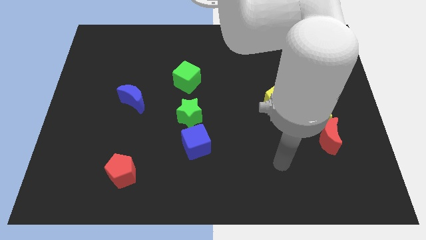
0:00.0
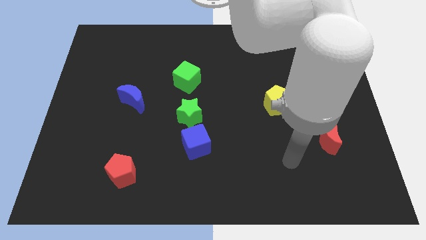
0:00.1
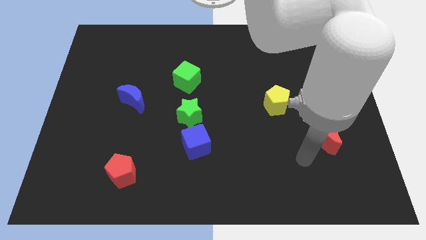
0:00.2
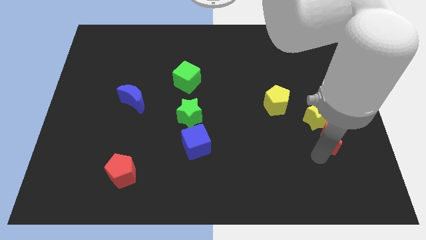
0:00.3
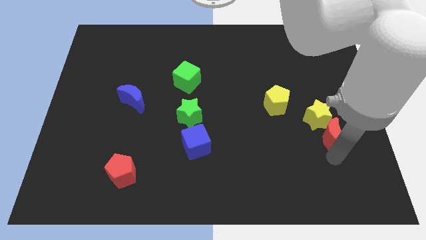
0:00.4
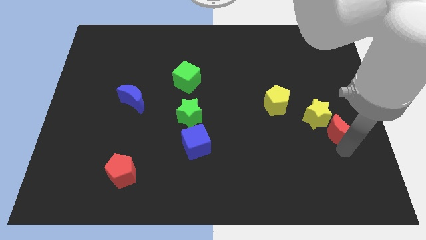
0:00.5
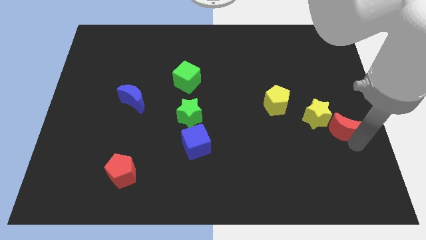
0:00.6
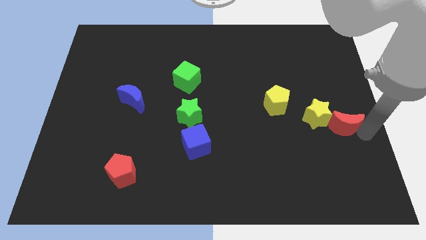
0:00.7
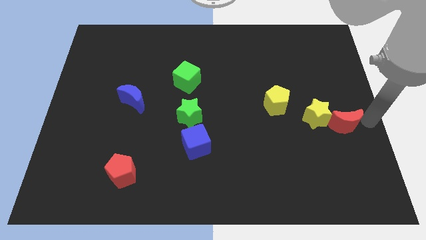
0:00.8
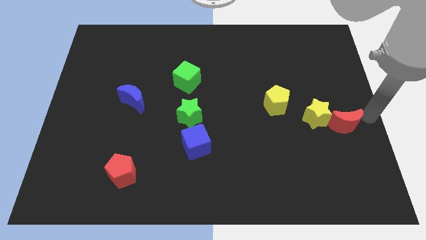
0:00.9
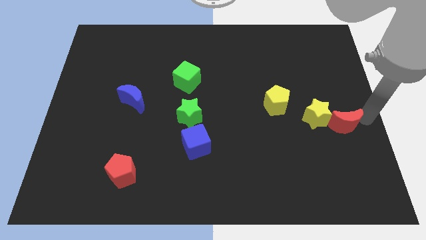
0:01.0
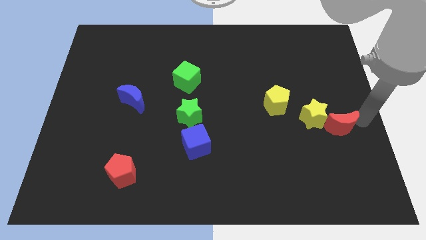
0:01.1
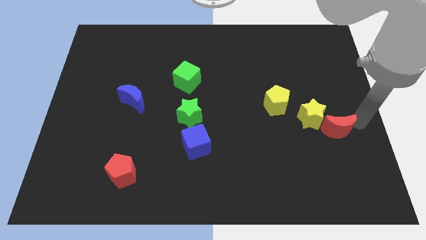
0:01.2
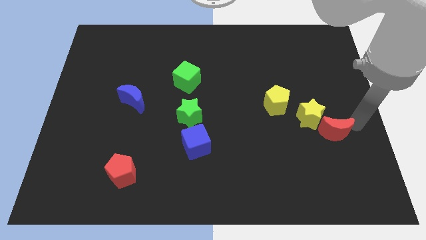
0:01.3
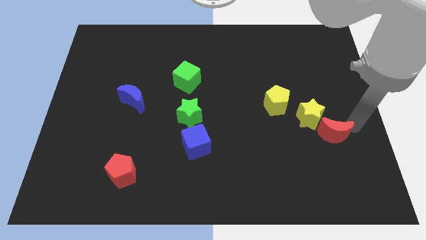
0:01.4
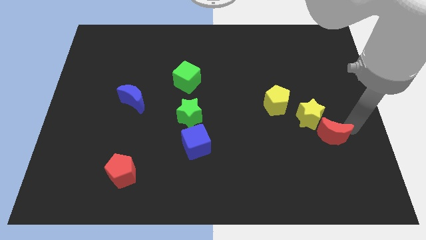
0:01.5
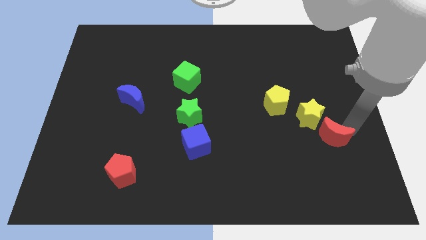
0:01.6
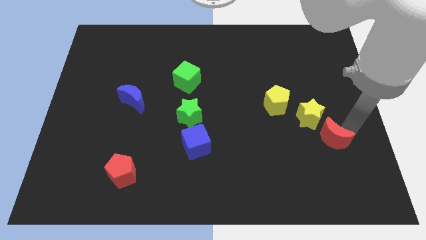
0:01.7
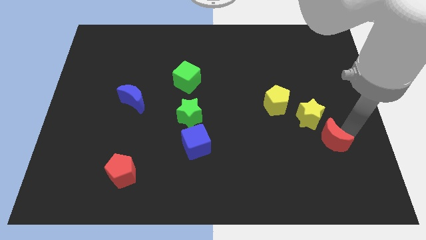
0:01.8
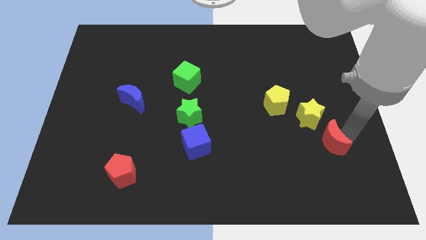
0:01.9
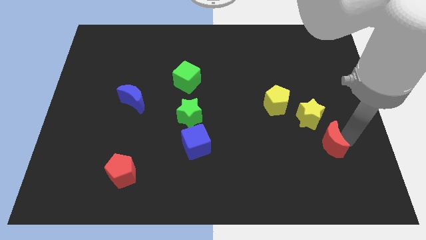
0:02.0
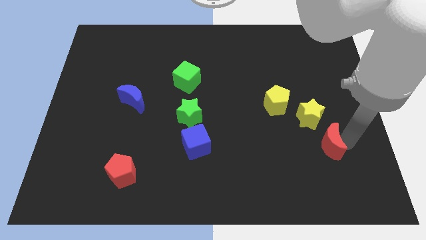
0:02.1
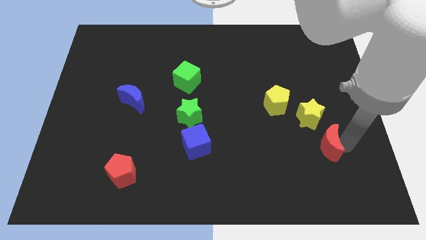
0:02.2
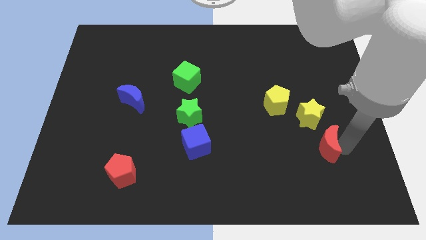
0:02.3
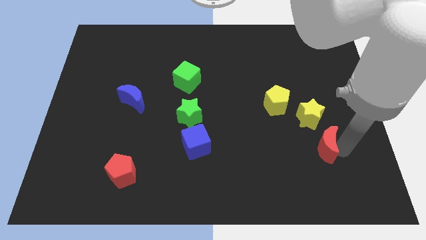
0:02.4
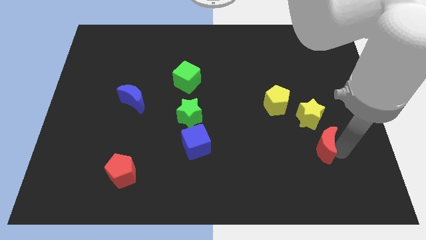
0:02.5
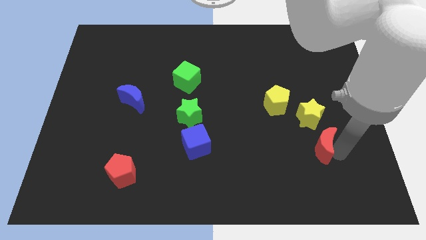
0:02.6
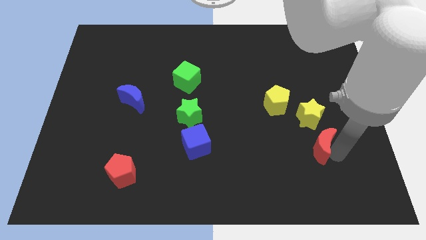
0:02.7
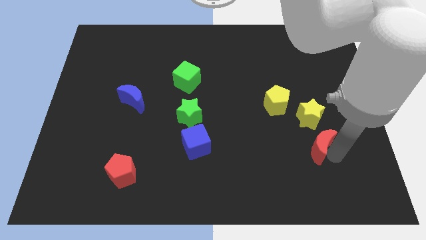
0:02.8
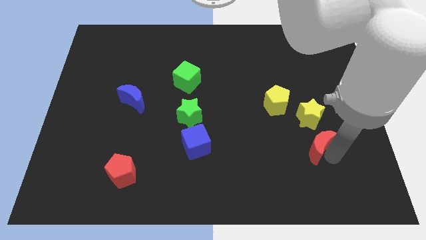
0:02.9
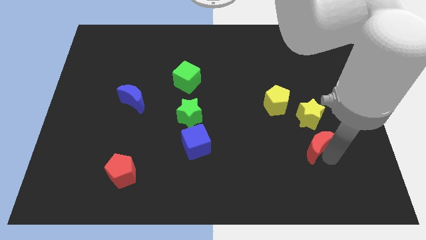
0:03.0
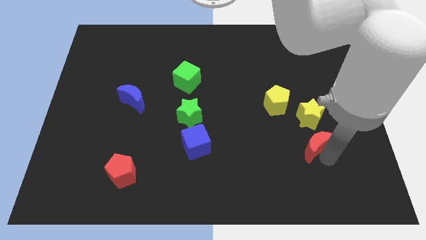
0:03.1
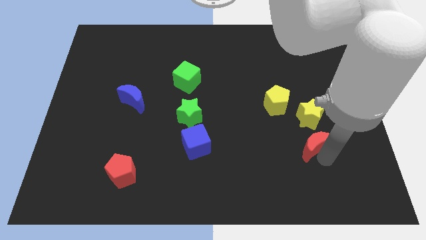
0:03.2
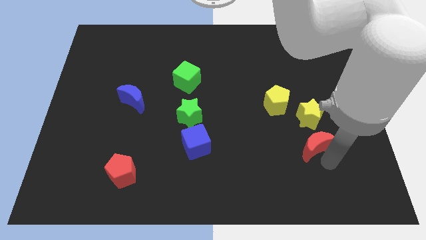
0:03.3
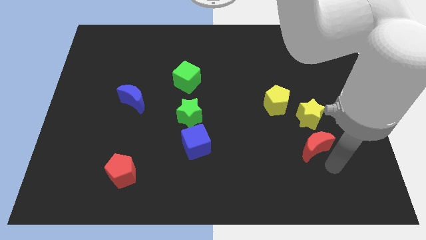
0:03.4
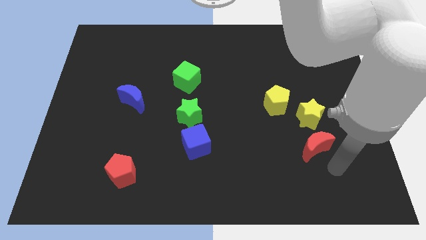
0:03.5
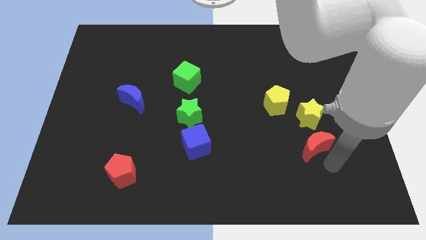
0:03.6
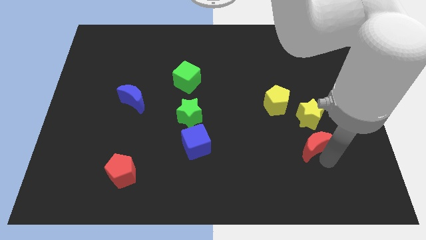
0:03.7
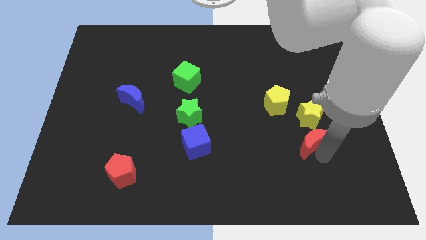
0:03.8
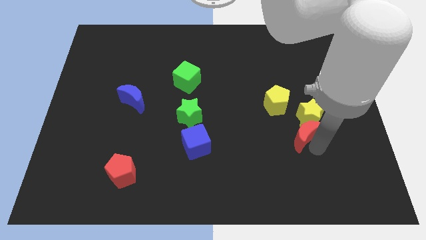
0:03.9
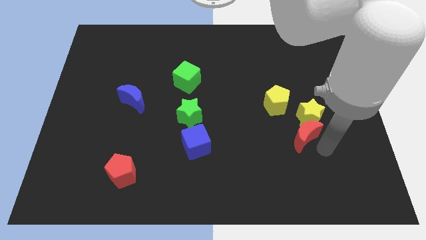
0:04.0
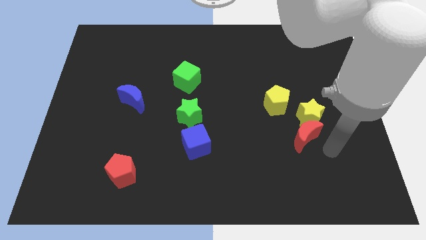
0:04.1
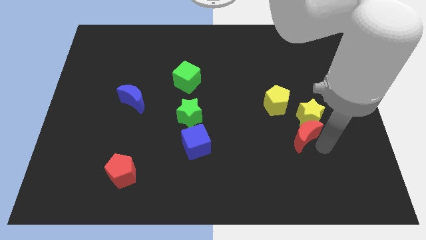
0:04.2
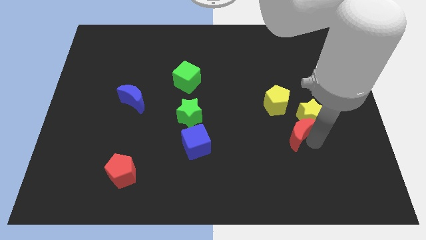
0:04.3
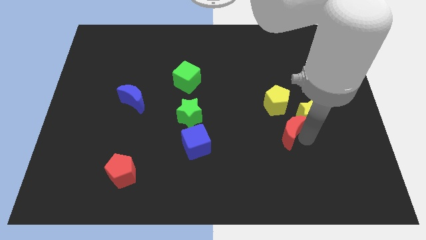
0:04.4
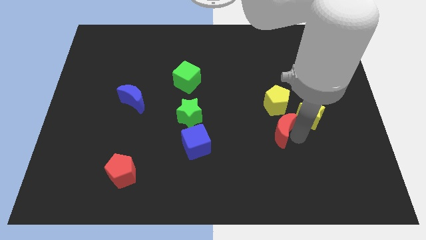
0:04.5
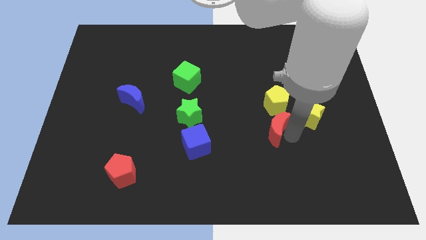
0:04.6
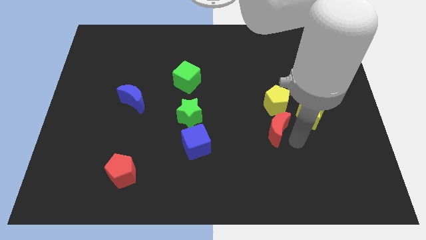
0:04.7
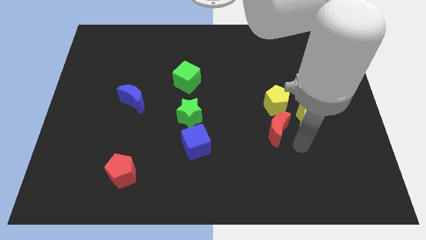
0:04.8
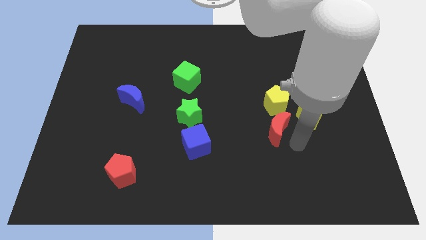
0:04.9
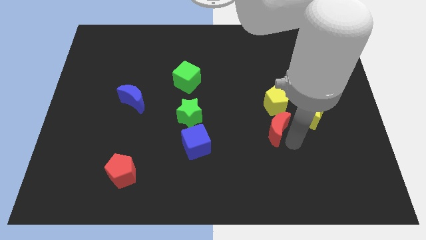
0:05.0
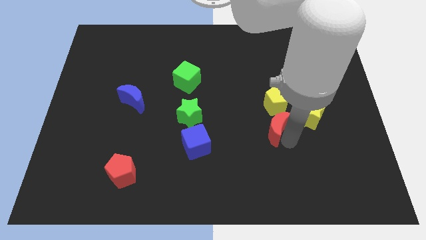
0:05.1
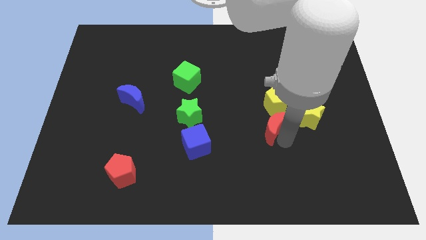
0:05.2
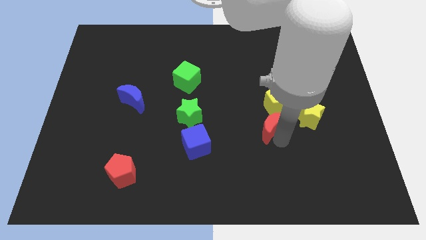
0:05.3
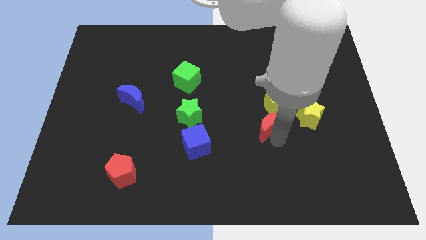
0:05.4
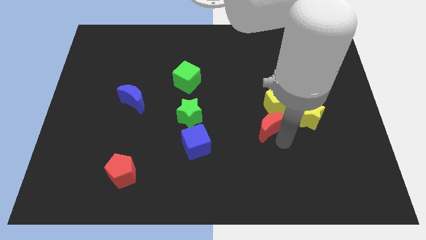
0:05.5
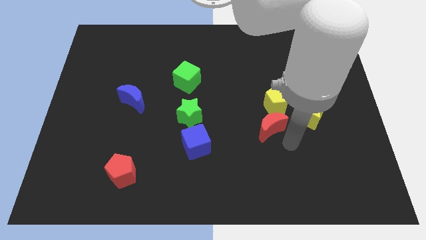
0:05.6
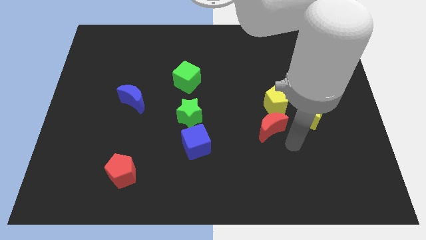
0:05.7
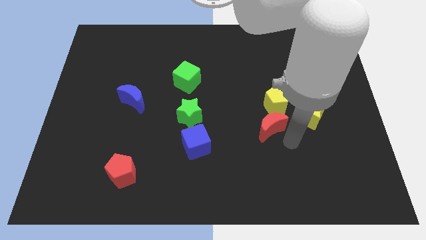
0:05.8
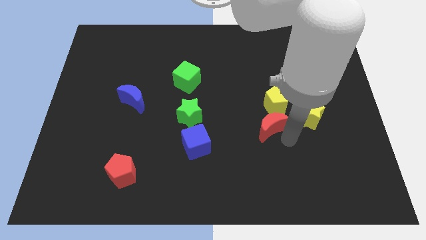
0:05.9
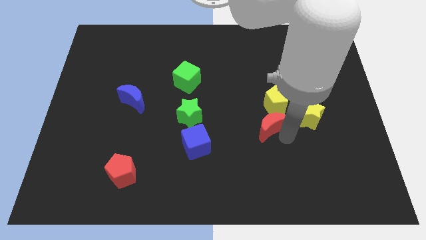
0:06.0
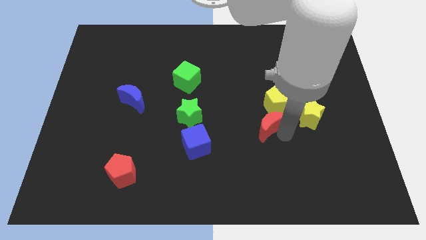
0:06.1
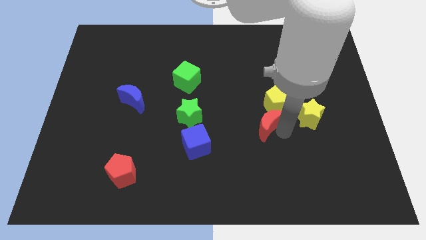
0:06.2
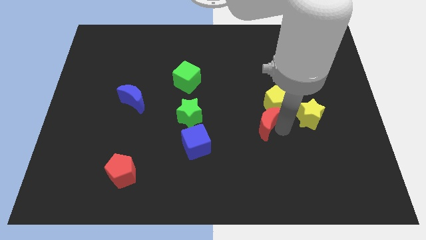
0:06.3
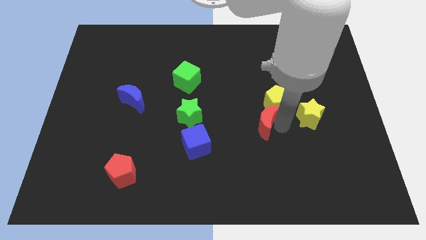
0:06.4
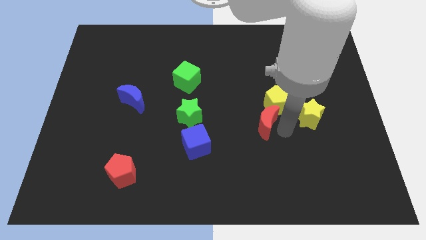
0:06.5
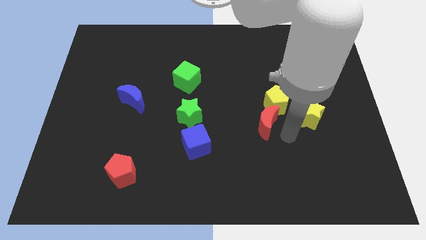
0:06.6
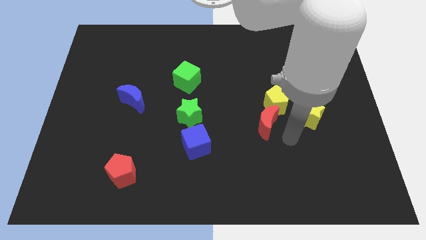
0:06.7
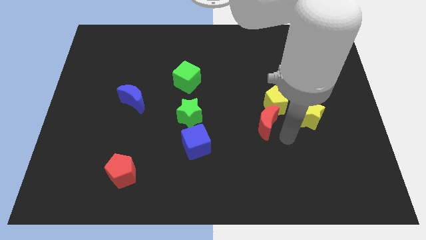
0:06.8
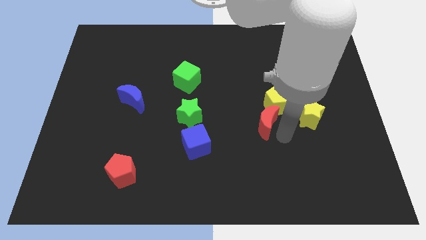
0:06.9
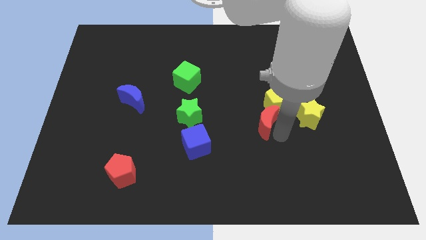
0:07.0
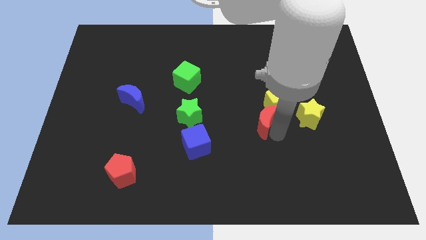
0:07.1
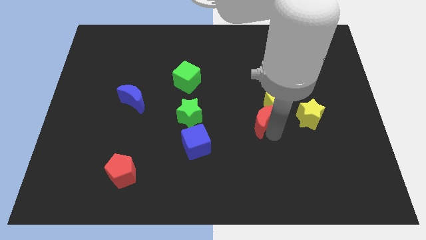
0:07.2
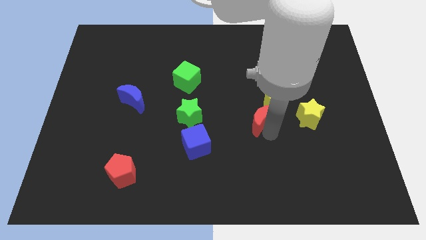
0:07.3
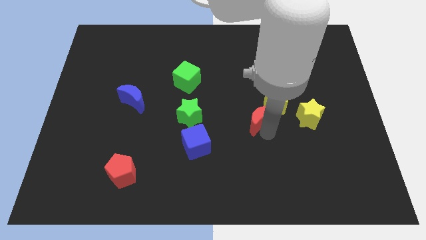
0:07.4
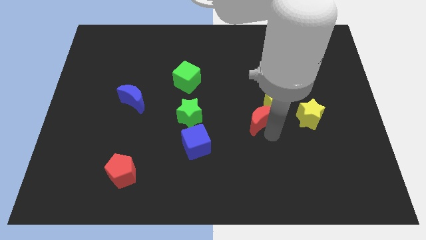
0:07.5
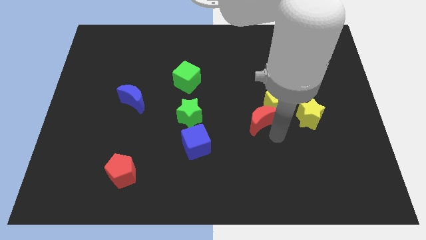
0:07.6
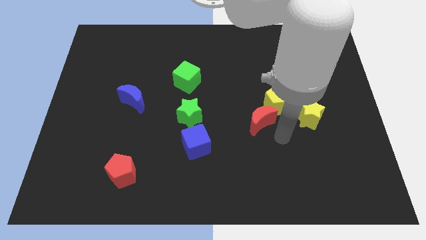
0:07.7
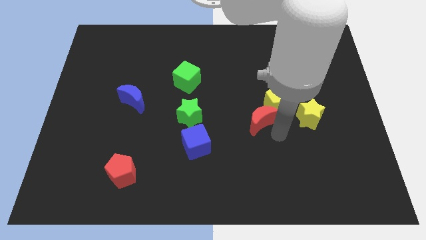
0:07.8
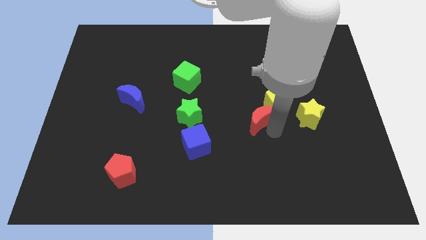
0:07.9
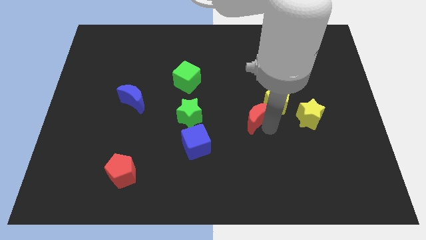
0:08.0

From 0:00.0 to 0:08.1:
put the red moon left of the yellow pentagon
